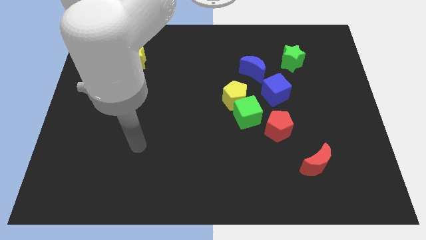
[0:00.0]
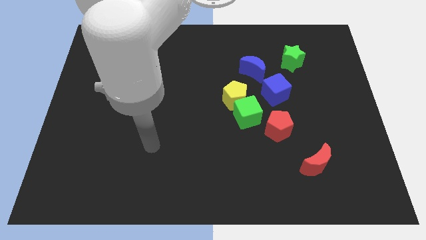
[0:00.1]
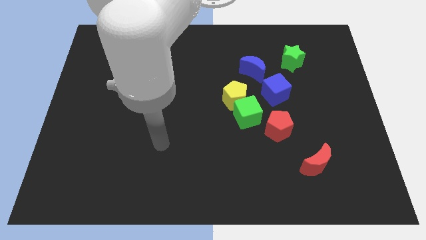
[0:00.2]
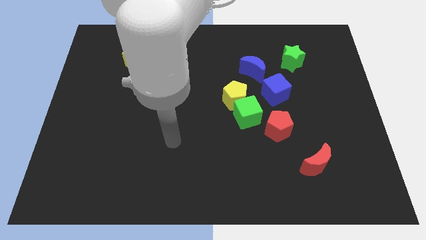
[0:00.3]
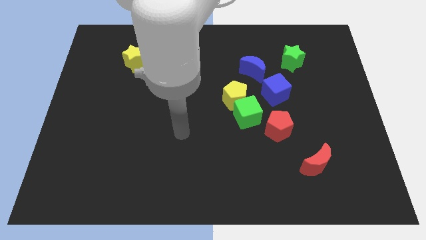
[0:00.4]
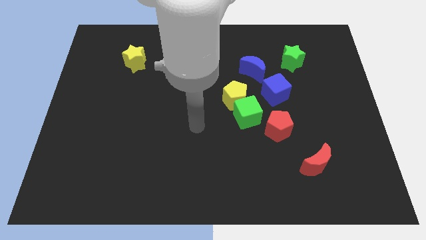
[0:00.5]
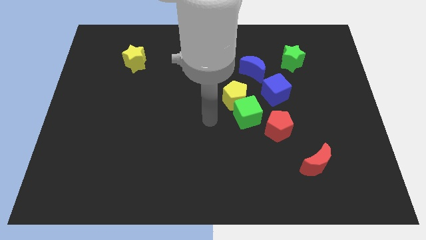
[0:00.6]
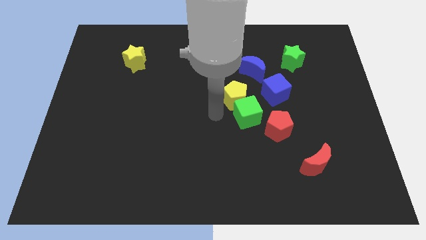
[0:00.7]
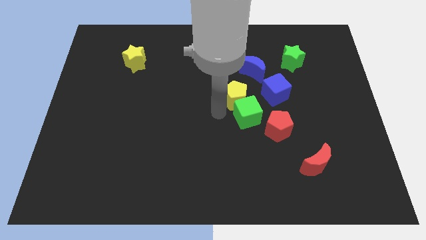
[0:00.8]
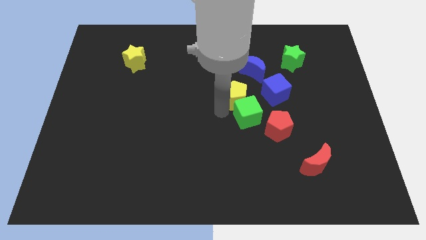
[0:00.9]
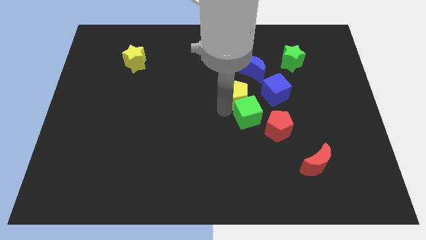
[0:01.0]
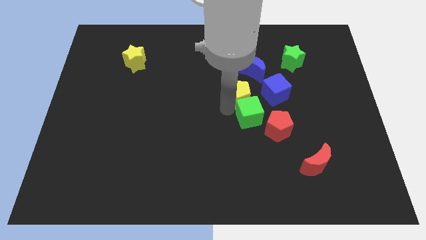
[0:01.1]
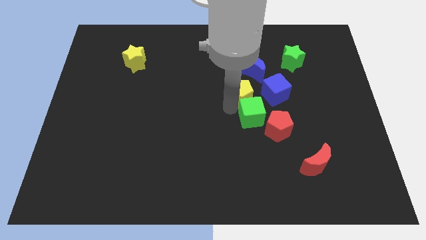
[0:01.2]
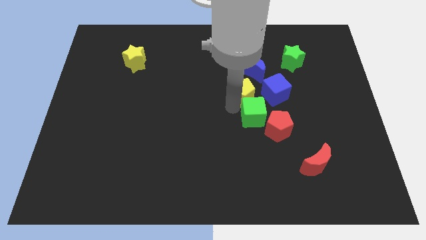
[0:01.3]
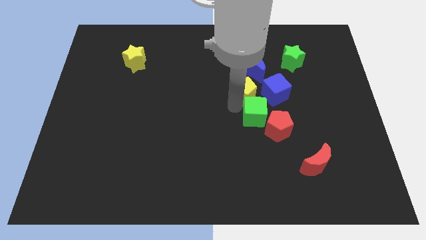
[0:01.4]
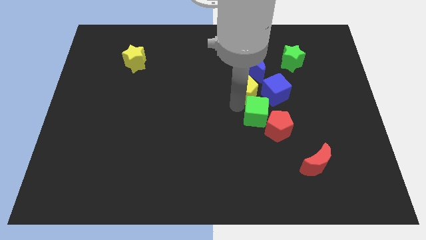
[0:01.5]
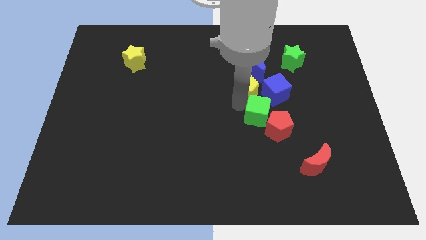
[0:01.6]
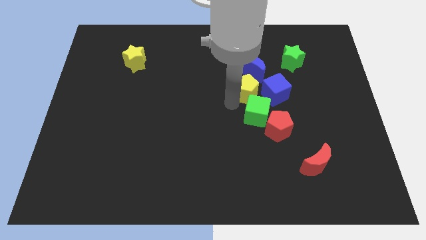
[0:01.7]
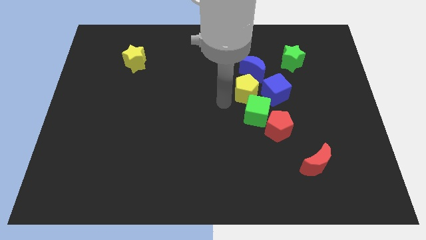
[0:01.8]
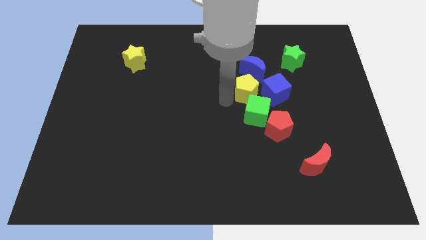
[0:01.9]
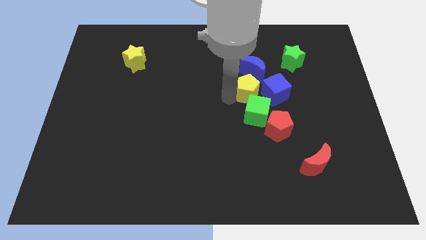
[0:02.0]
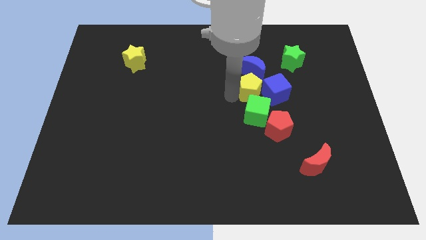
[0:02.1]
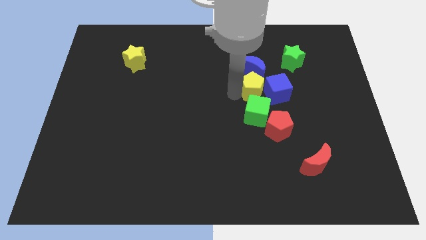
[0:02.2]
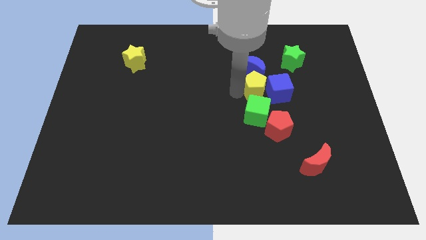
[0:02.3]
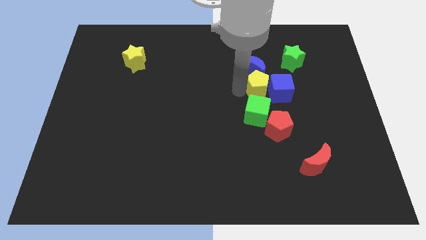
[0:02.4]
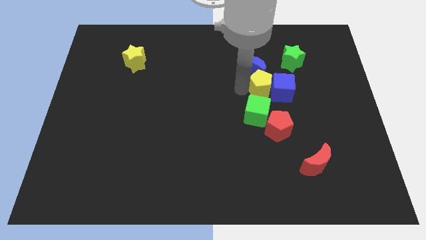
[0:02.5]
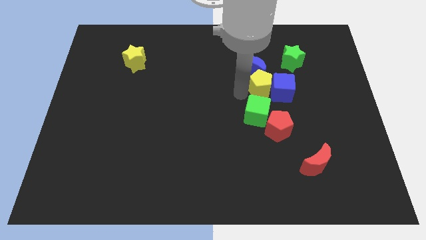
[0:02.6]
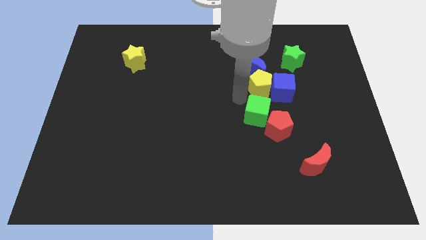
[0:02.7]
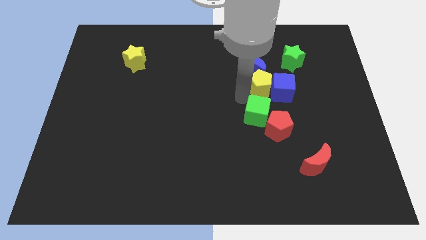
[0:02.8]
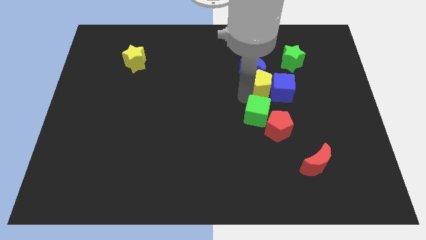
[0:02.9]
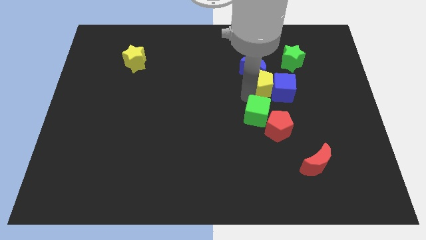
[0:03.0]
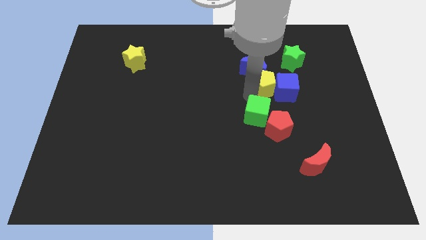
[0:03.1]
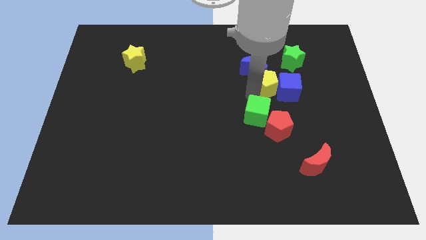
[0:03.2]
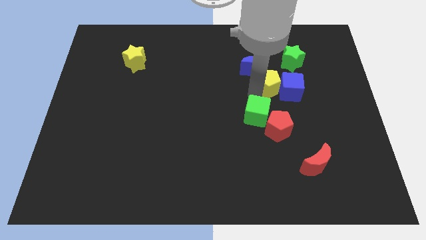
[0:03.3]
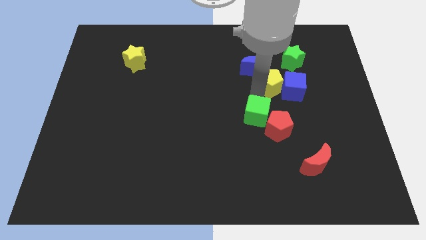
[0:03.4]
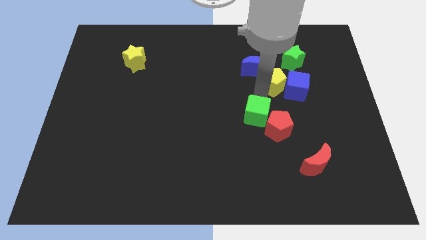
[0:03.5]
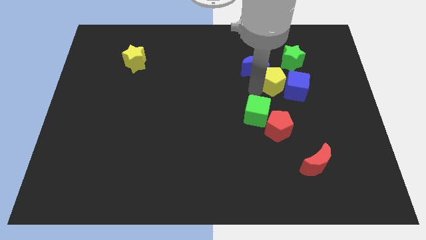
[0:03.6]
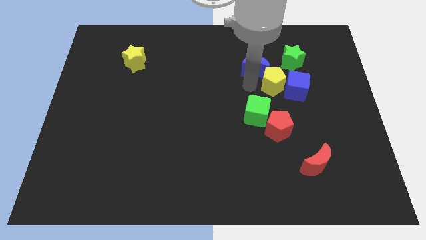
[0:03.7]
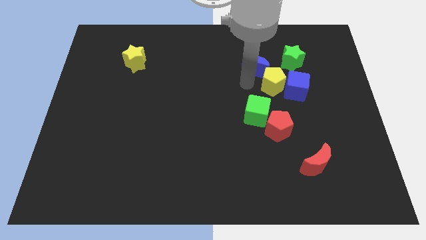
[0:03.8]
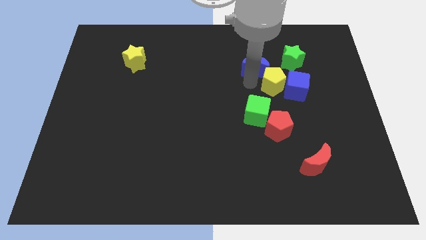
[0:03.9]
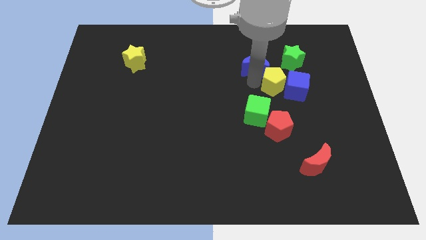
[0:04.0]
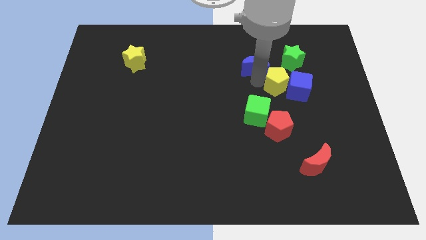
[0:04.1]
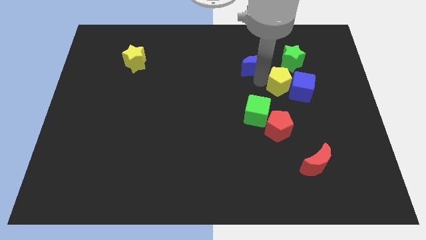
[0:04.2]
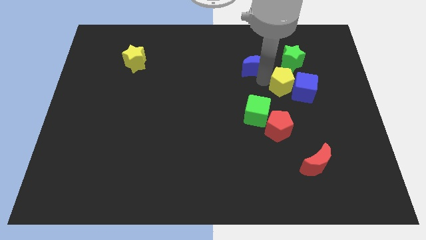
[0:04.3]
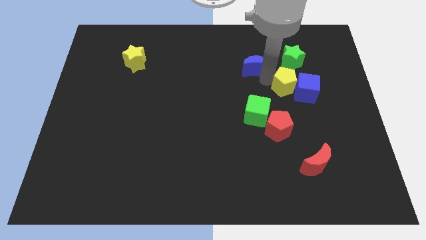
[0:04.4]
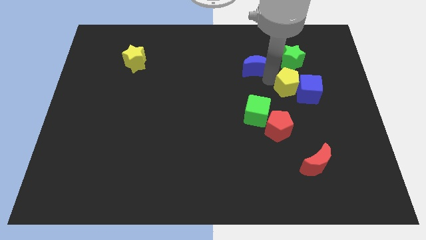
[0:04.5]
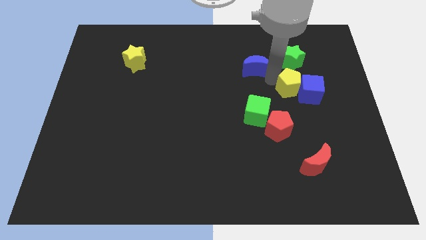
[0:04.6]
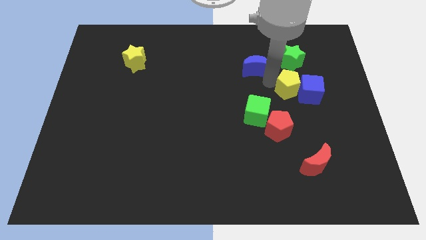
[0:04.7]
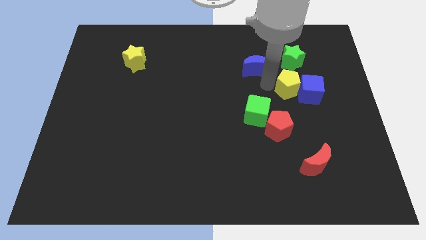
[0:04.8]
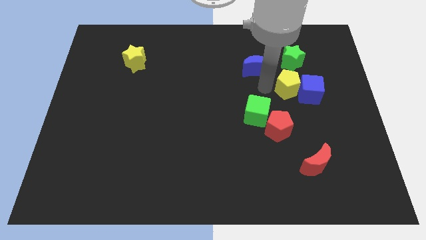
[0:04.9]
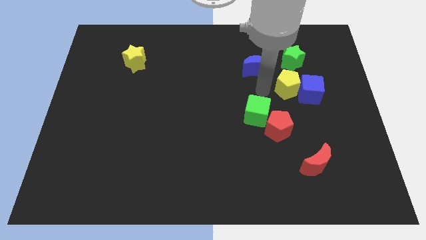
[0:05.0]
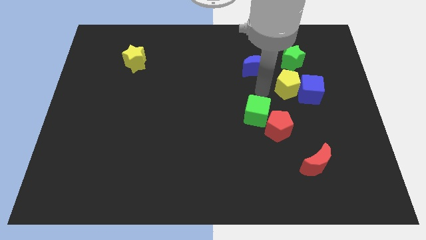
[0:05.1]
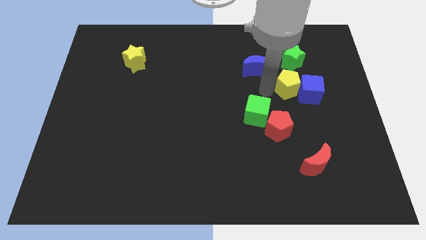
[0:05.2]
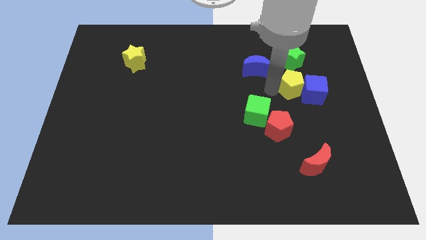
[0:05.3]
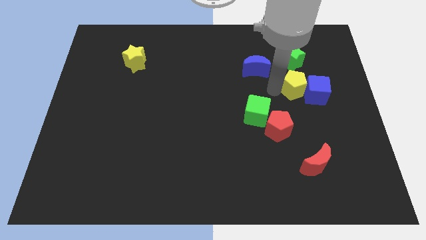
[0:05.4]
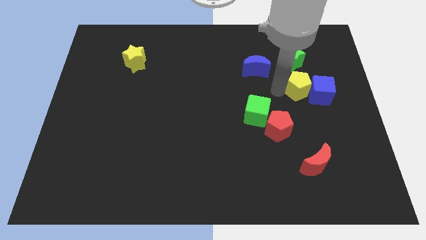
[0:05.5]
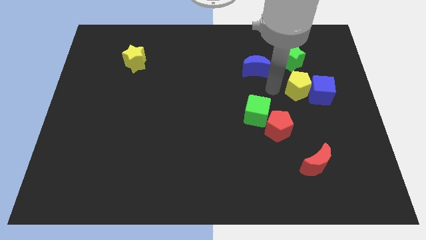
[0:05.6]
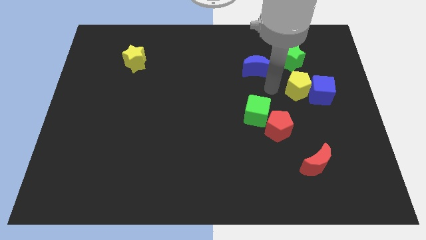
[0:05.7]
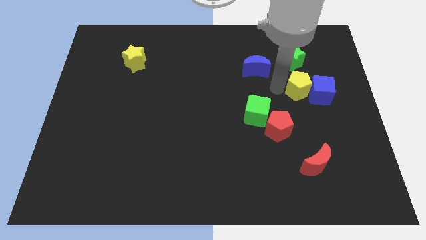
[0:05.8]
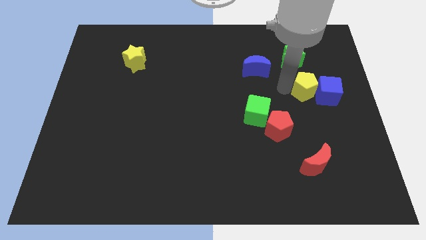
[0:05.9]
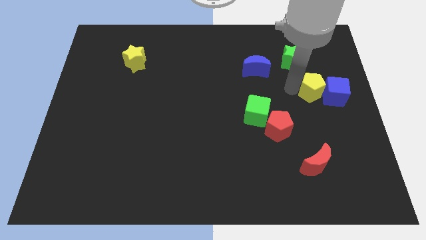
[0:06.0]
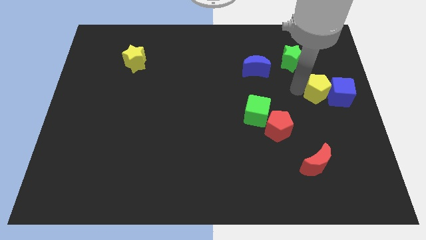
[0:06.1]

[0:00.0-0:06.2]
push the yellow pentagon to the right side of the board
